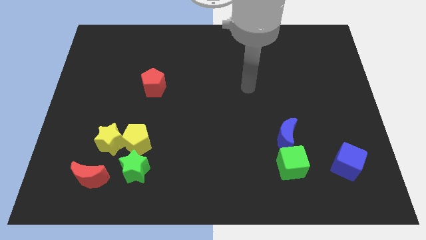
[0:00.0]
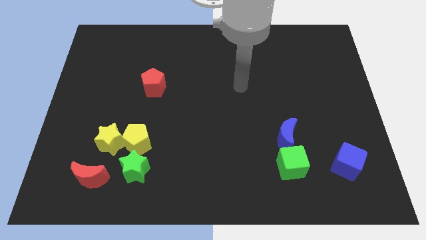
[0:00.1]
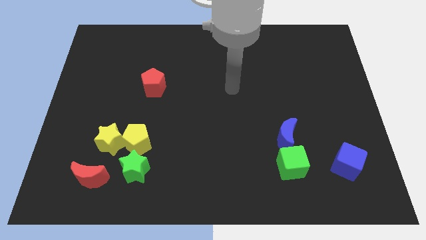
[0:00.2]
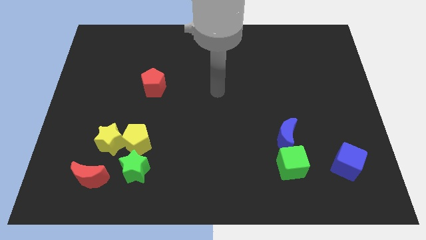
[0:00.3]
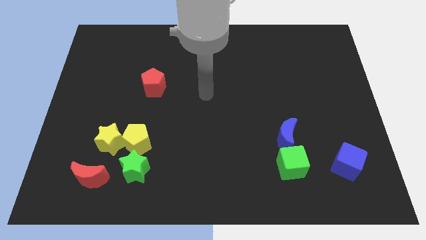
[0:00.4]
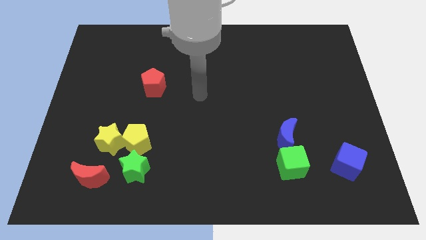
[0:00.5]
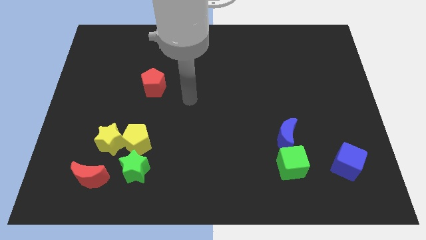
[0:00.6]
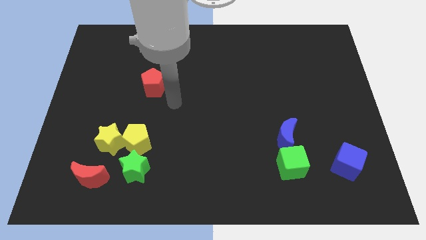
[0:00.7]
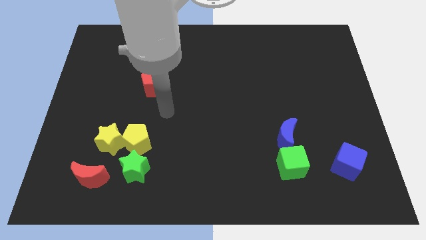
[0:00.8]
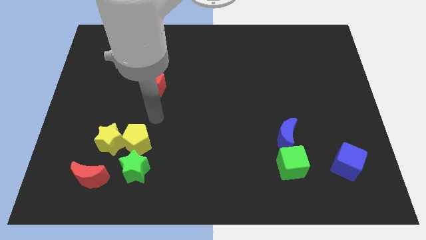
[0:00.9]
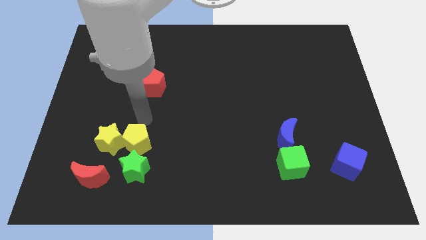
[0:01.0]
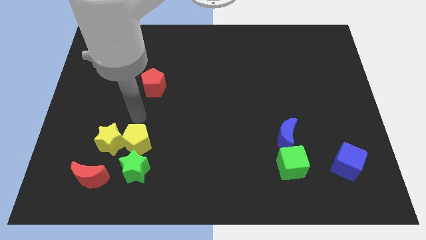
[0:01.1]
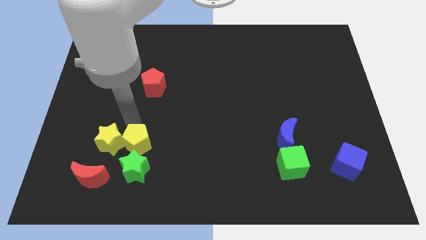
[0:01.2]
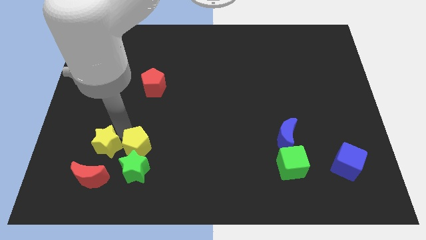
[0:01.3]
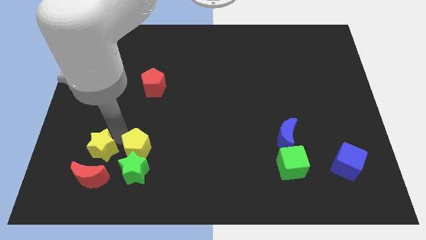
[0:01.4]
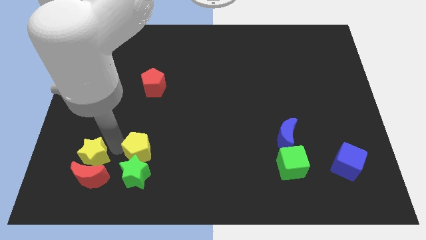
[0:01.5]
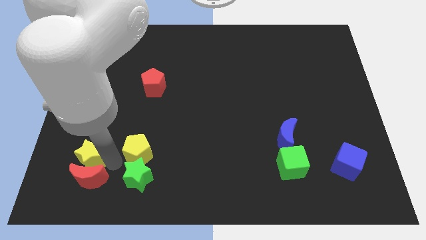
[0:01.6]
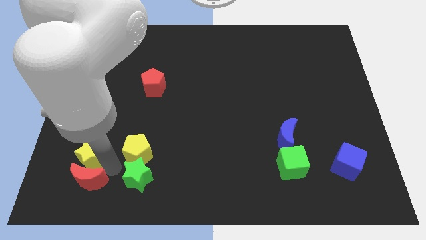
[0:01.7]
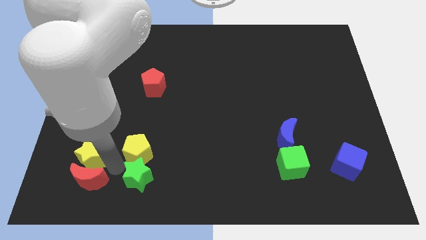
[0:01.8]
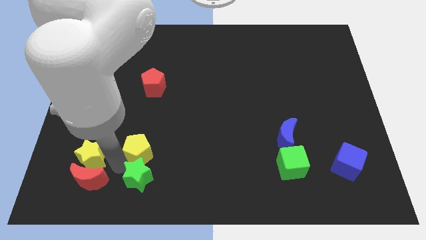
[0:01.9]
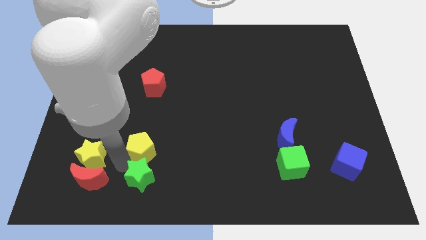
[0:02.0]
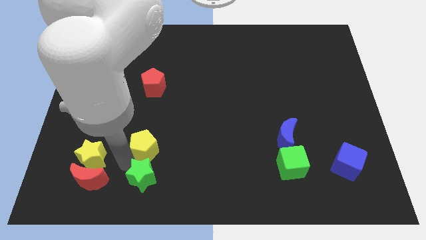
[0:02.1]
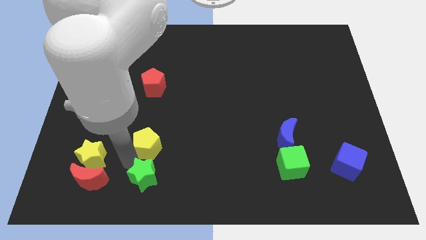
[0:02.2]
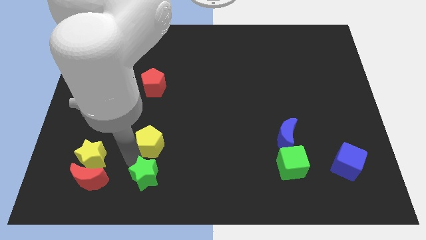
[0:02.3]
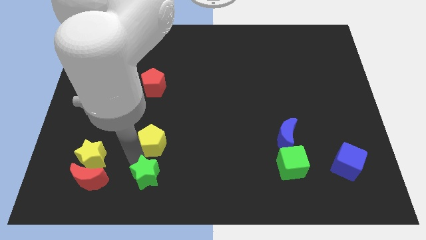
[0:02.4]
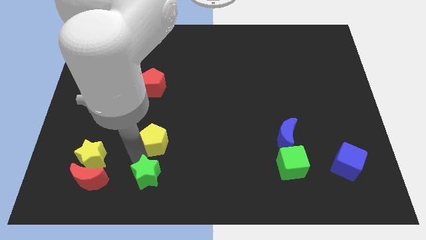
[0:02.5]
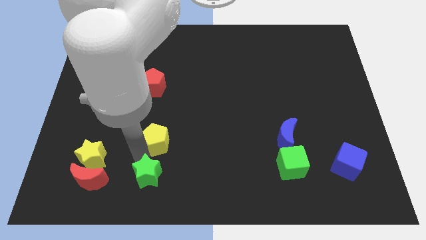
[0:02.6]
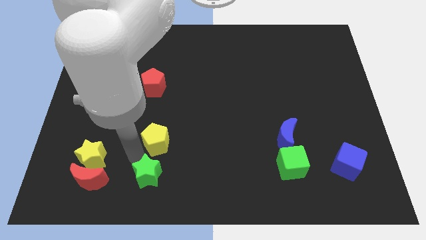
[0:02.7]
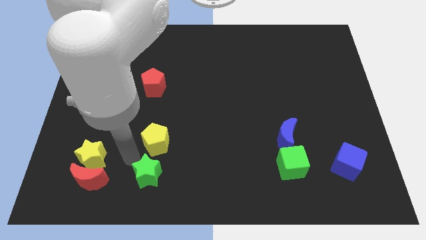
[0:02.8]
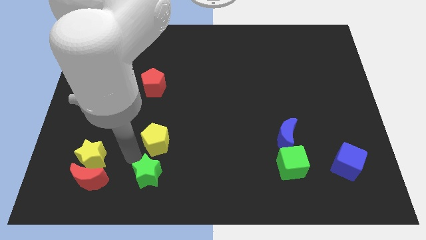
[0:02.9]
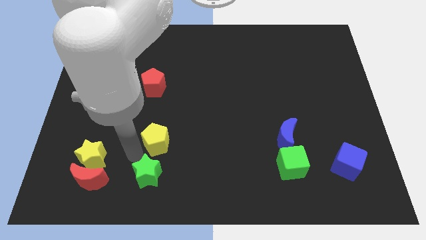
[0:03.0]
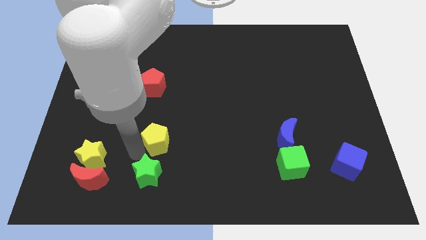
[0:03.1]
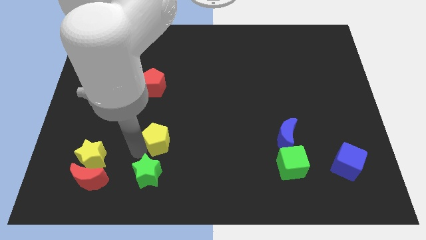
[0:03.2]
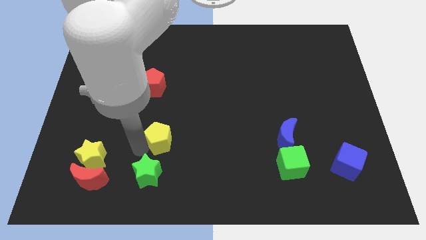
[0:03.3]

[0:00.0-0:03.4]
pull the yellow pentagon apart from the yellow star and green star

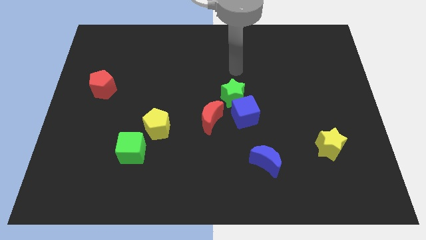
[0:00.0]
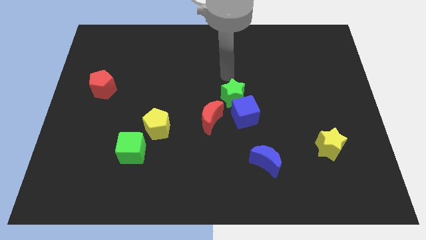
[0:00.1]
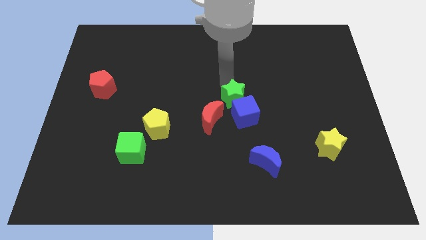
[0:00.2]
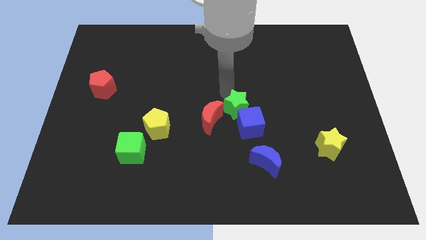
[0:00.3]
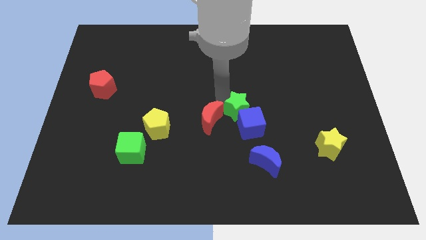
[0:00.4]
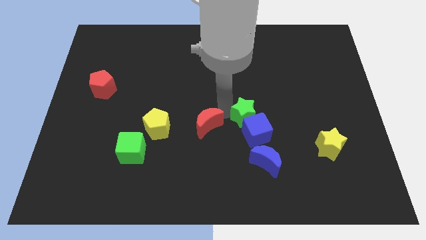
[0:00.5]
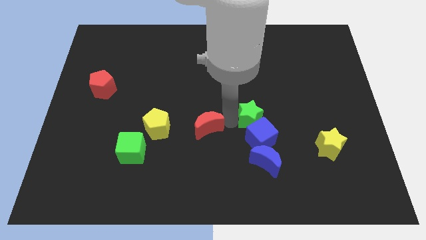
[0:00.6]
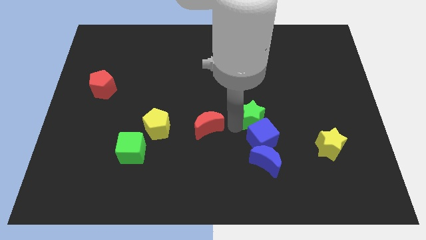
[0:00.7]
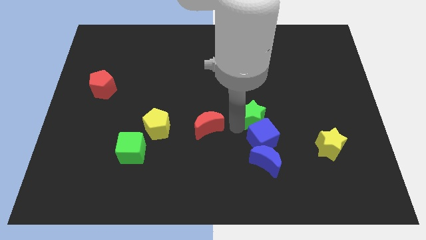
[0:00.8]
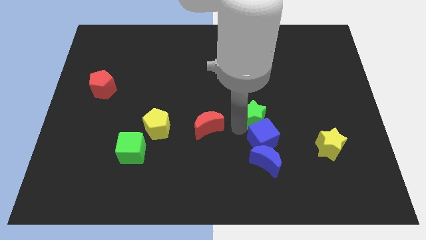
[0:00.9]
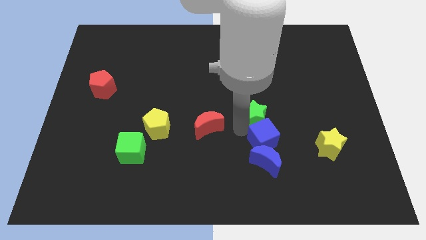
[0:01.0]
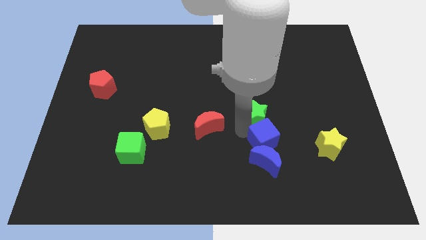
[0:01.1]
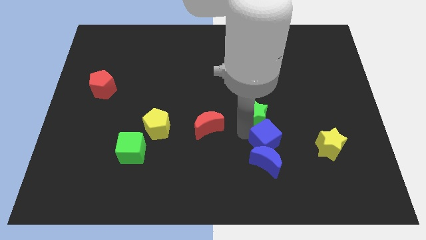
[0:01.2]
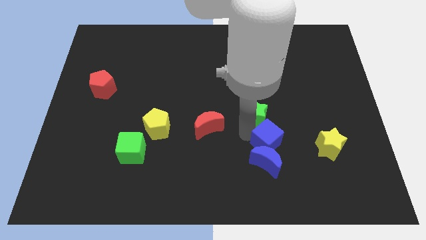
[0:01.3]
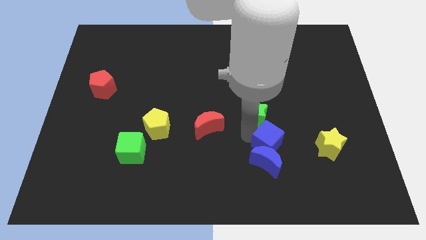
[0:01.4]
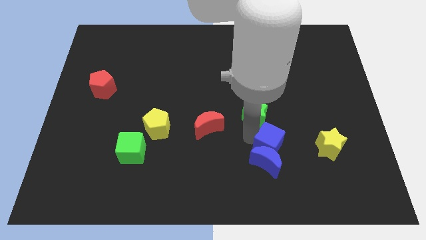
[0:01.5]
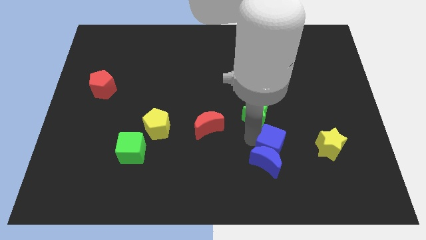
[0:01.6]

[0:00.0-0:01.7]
move the blue cube away from the green star and red moon

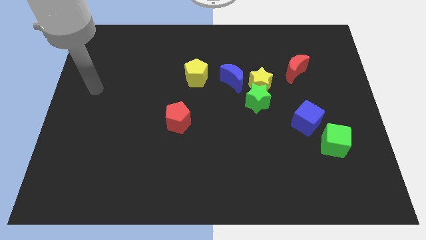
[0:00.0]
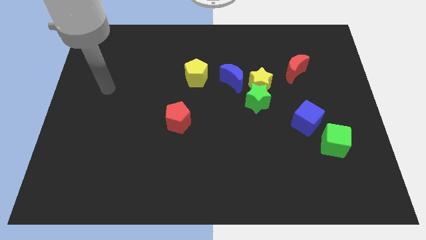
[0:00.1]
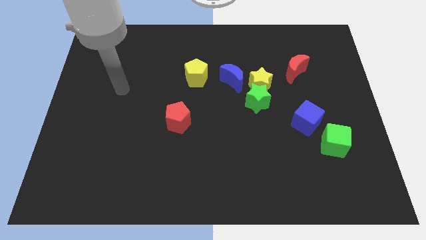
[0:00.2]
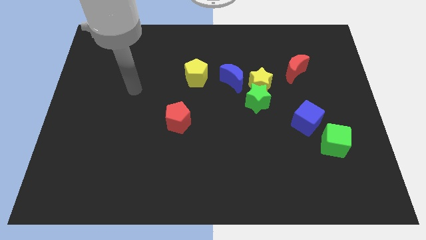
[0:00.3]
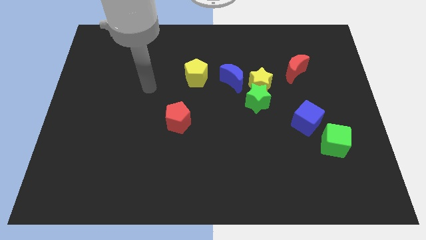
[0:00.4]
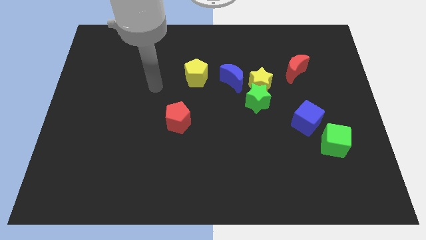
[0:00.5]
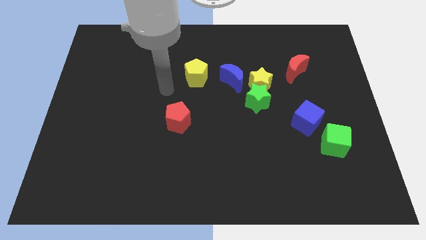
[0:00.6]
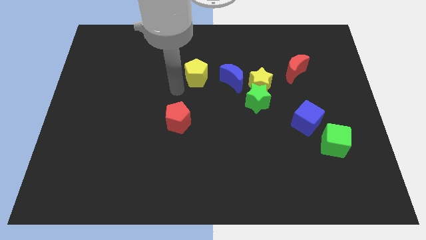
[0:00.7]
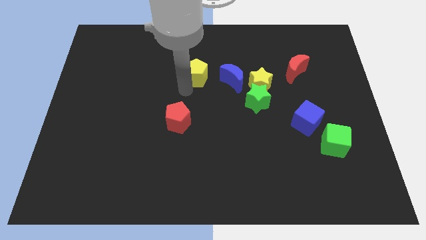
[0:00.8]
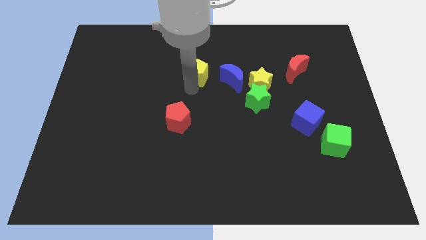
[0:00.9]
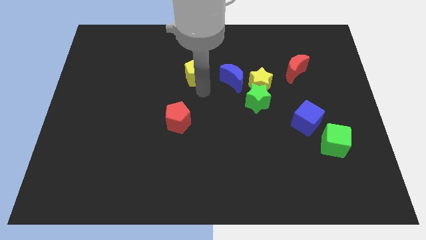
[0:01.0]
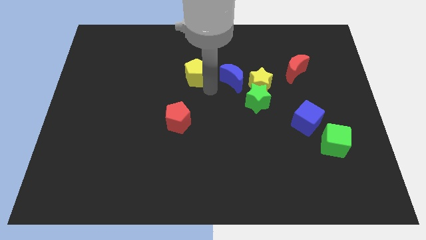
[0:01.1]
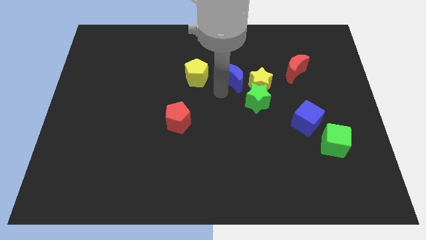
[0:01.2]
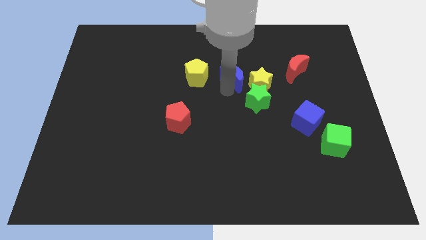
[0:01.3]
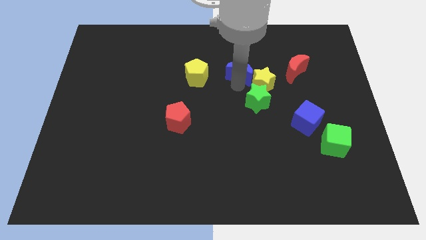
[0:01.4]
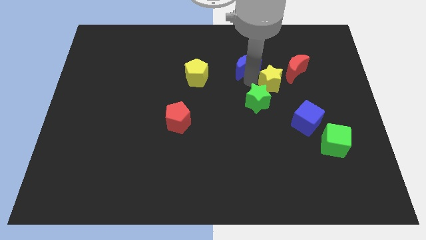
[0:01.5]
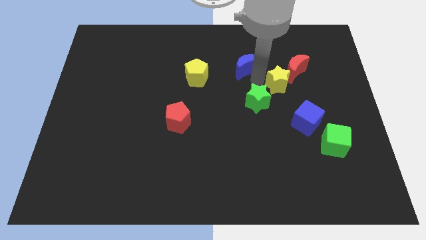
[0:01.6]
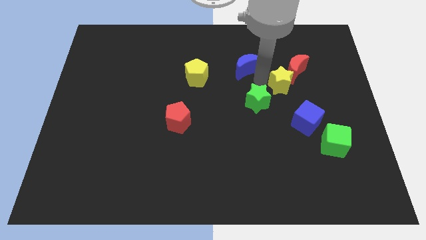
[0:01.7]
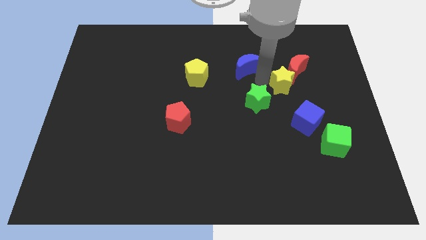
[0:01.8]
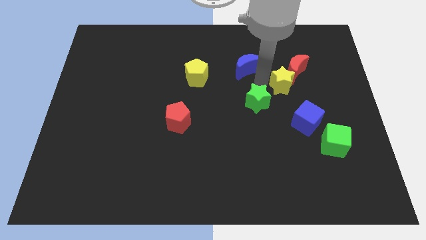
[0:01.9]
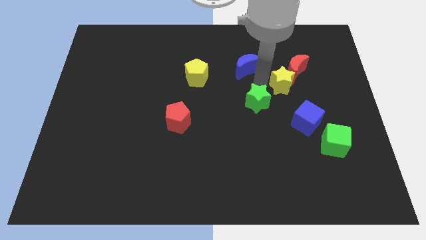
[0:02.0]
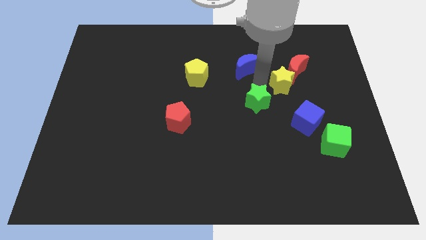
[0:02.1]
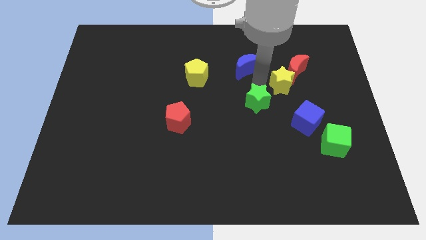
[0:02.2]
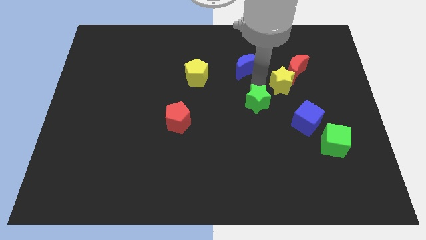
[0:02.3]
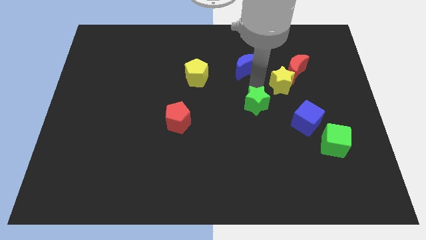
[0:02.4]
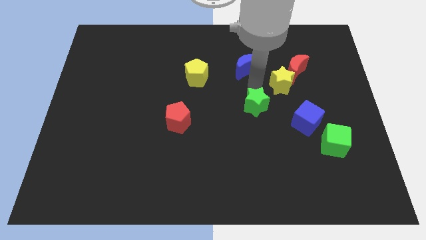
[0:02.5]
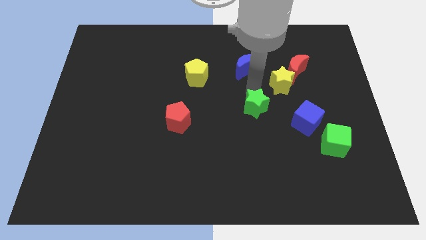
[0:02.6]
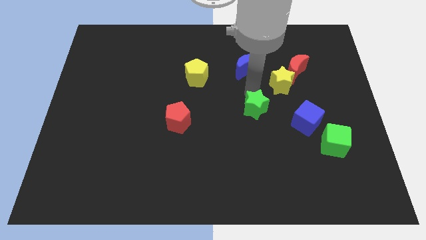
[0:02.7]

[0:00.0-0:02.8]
move the green star away from the yellow star and blue moon

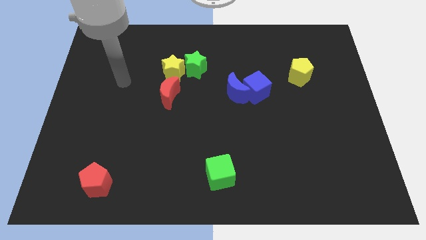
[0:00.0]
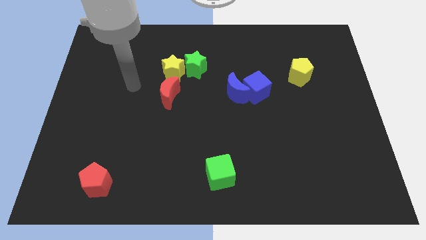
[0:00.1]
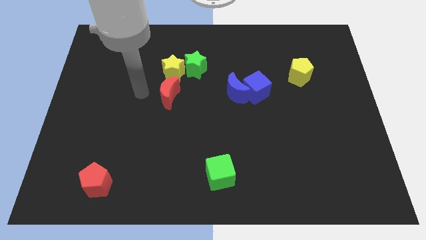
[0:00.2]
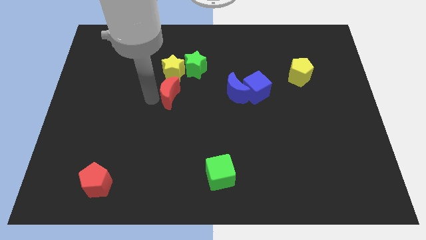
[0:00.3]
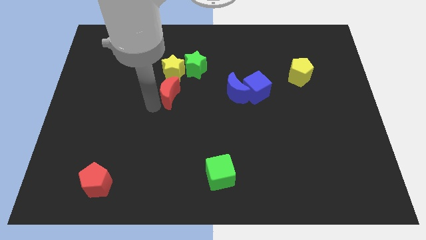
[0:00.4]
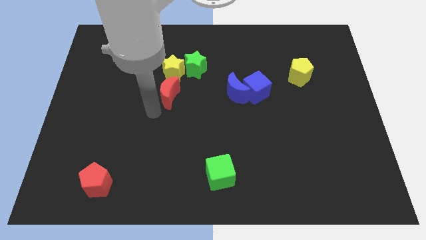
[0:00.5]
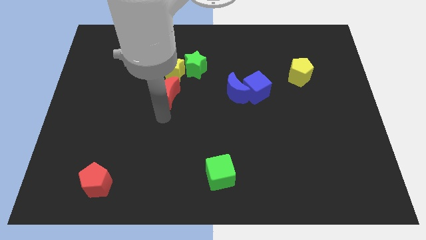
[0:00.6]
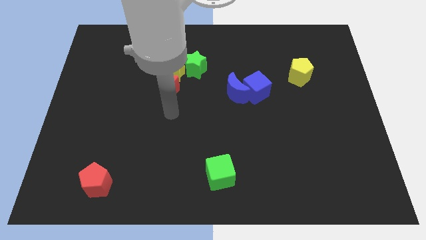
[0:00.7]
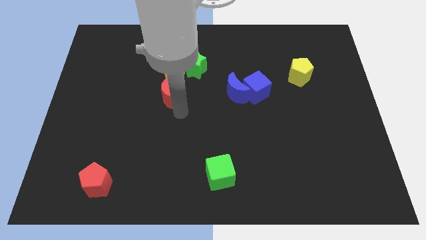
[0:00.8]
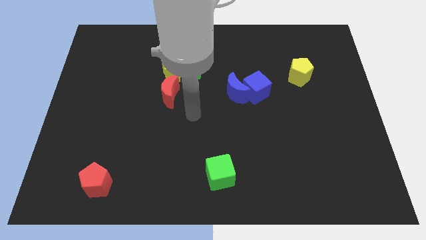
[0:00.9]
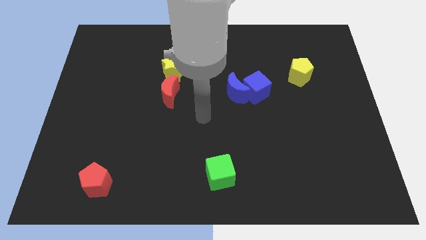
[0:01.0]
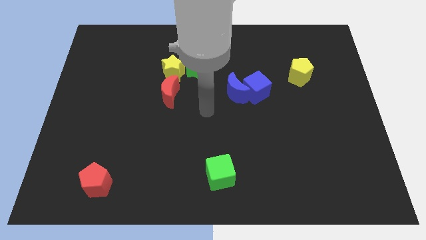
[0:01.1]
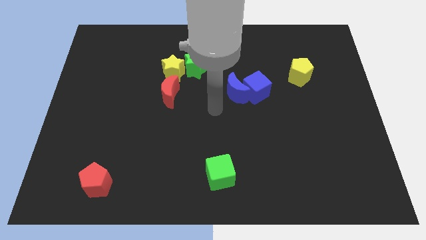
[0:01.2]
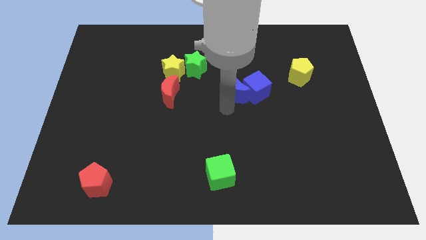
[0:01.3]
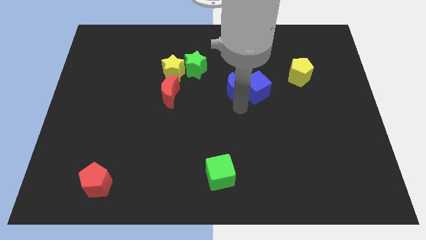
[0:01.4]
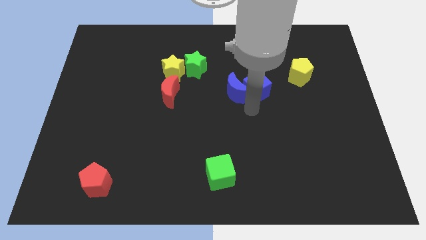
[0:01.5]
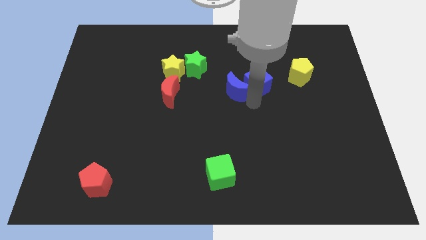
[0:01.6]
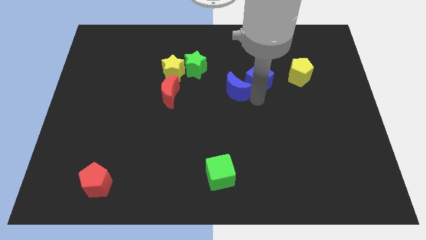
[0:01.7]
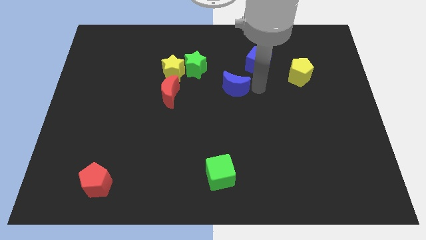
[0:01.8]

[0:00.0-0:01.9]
pull the blue moon apart from the blue cube
